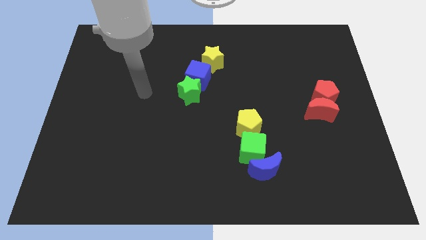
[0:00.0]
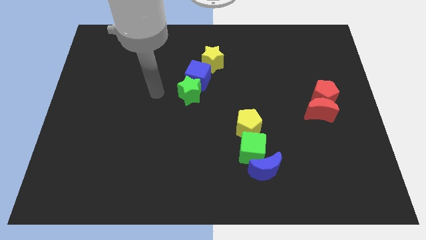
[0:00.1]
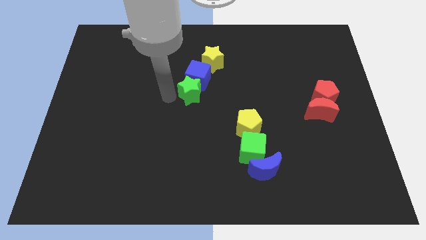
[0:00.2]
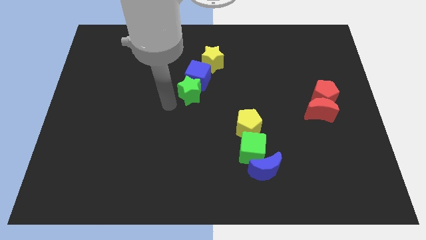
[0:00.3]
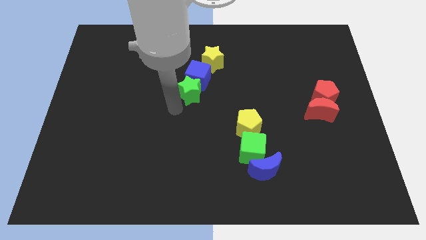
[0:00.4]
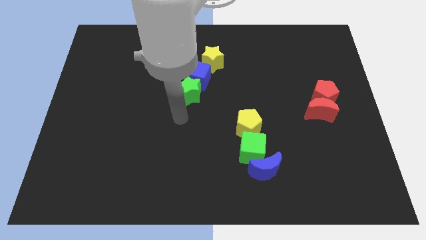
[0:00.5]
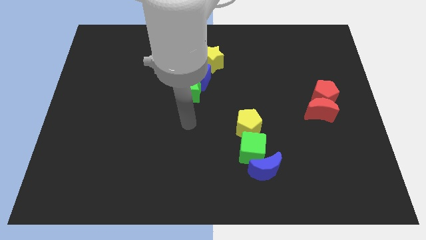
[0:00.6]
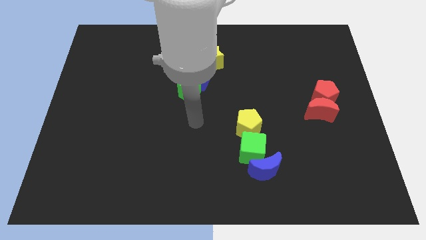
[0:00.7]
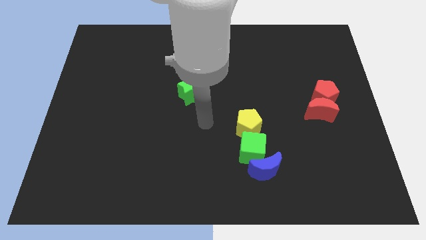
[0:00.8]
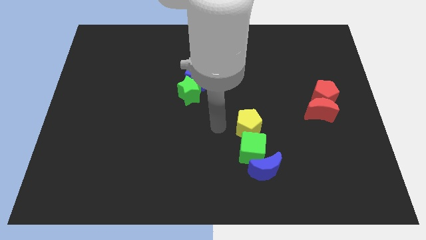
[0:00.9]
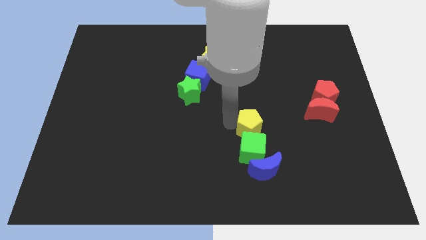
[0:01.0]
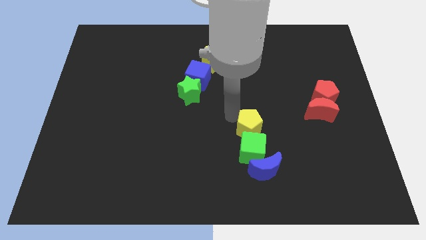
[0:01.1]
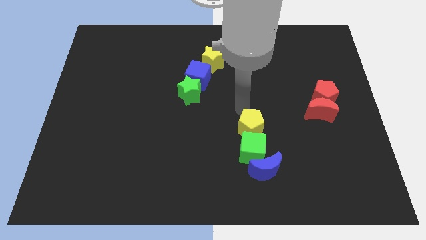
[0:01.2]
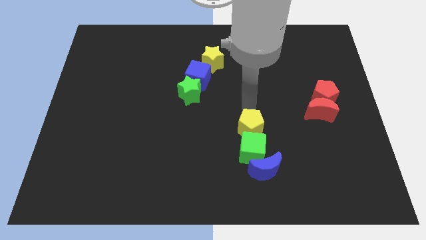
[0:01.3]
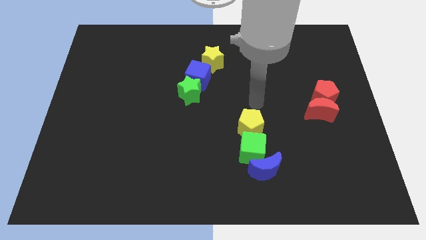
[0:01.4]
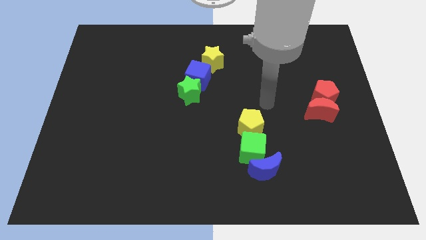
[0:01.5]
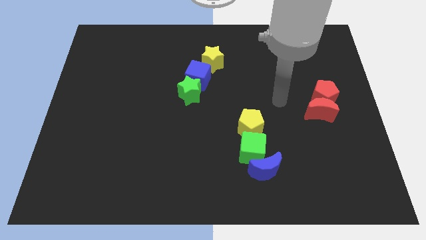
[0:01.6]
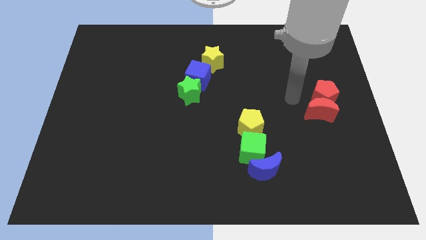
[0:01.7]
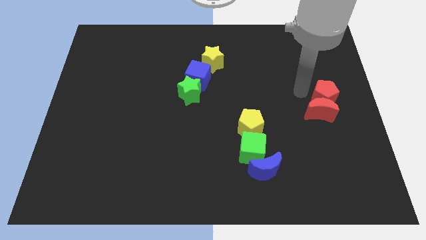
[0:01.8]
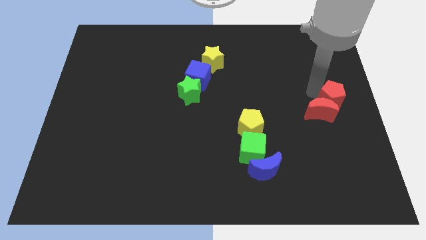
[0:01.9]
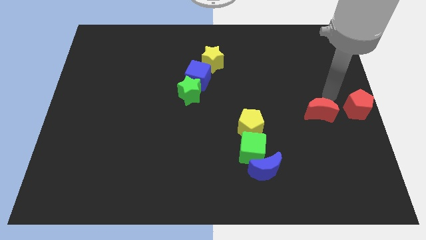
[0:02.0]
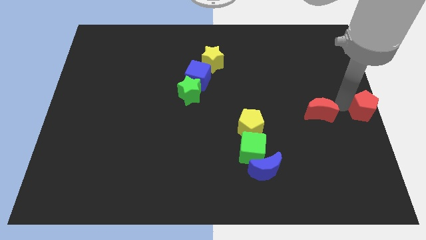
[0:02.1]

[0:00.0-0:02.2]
separate the red moon from the red pentagon

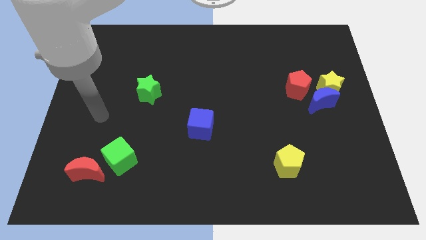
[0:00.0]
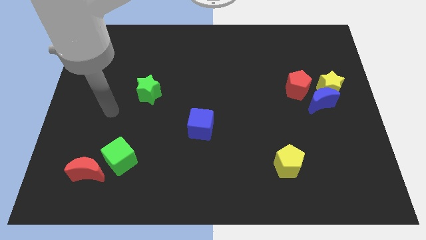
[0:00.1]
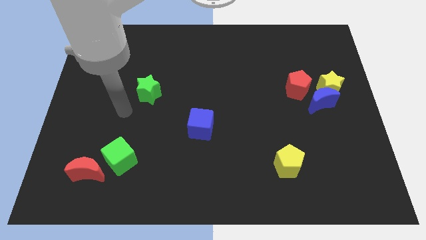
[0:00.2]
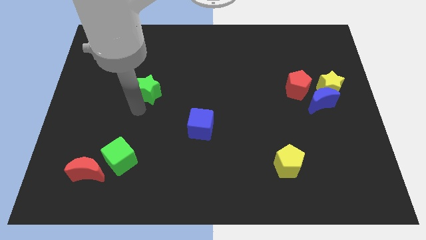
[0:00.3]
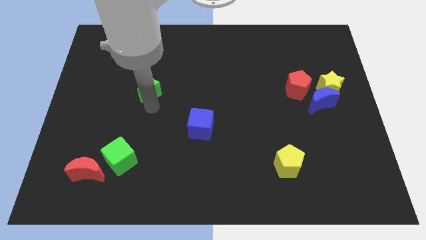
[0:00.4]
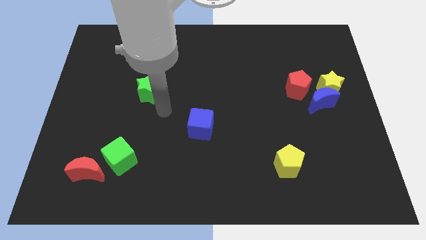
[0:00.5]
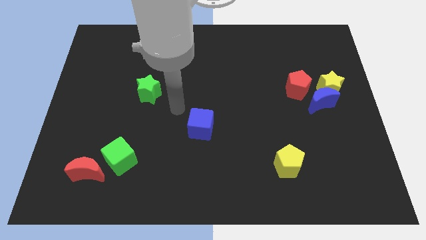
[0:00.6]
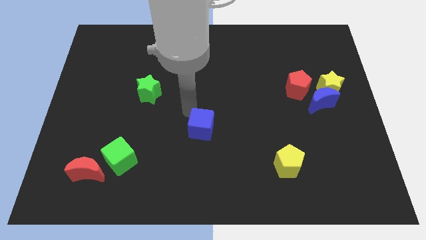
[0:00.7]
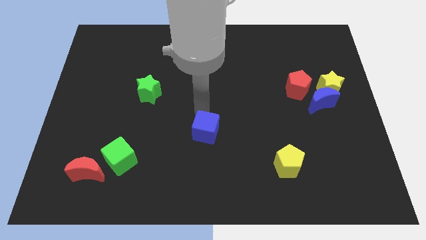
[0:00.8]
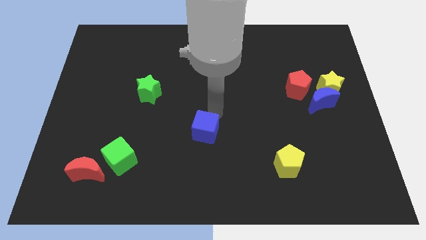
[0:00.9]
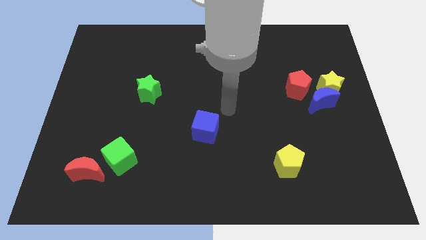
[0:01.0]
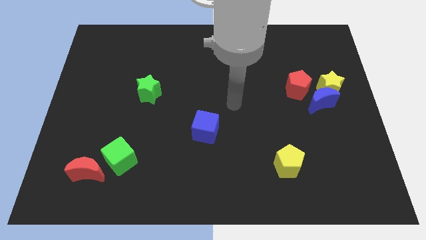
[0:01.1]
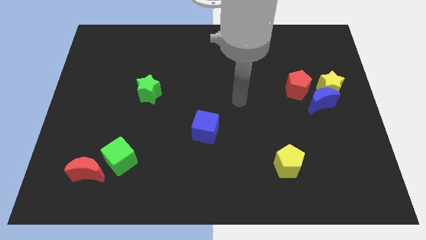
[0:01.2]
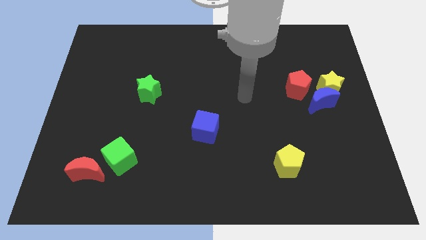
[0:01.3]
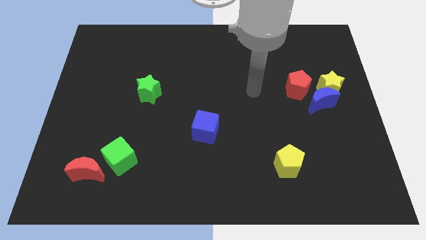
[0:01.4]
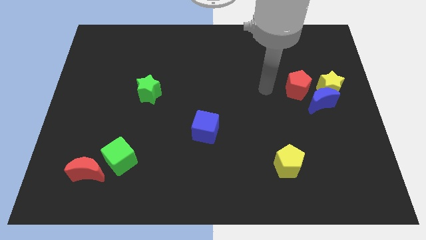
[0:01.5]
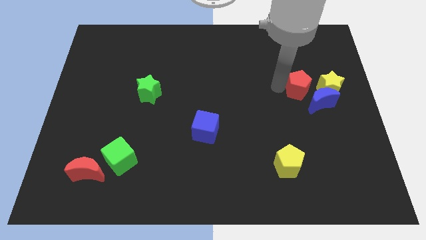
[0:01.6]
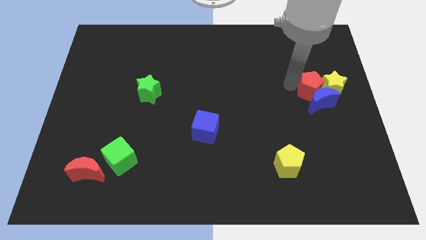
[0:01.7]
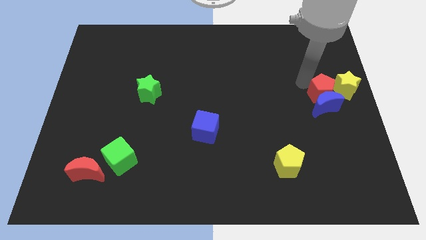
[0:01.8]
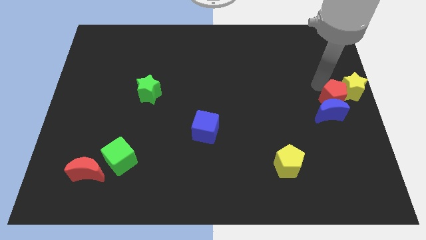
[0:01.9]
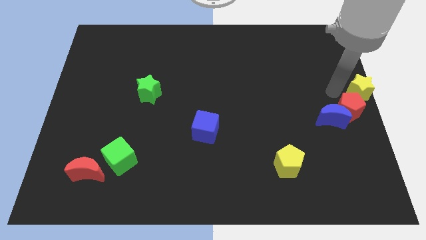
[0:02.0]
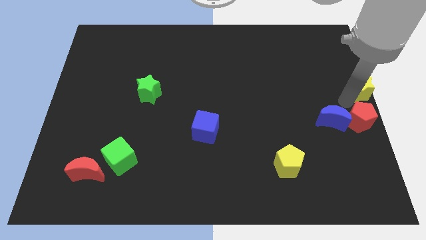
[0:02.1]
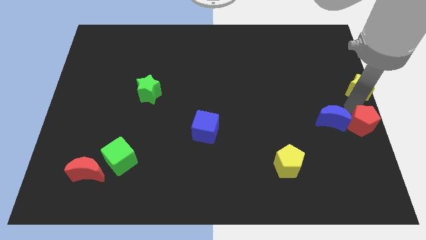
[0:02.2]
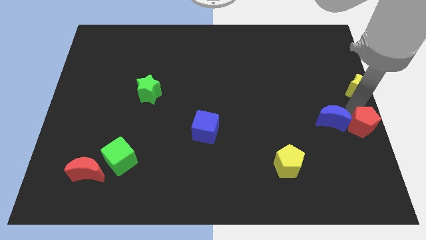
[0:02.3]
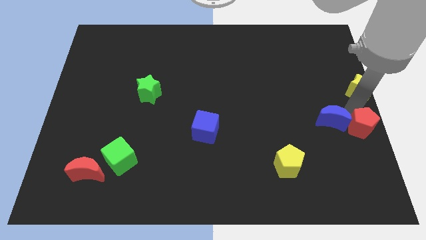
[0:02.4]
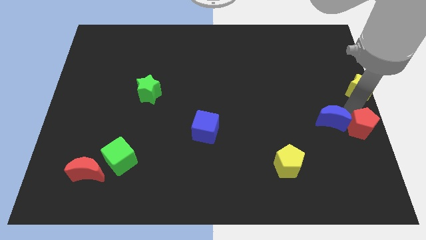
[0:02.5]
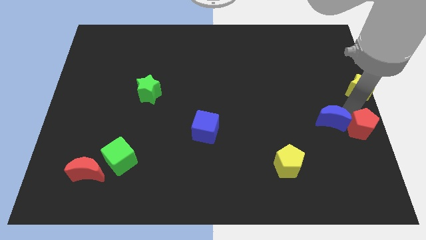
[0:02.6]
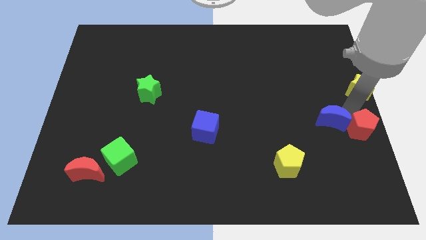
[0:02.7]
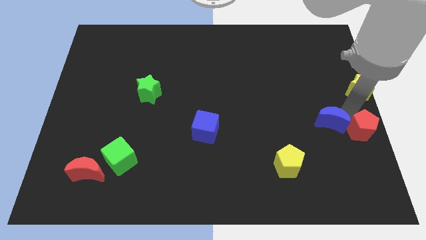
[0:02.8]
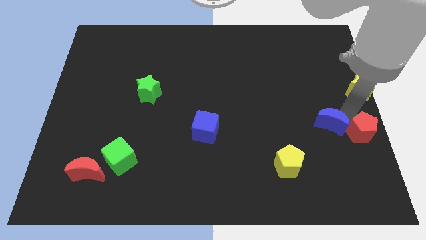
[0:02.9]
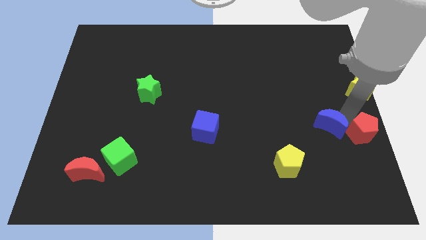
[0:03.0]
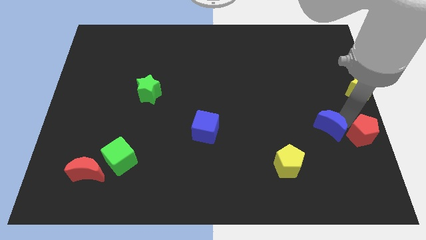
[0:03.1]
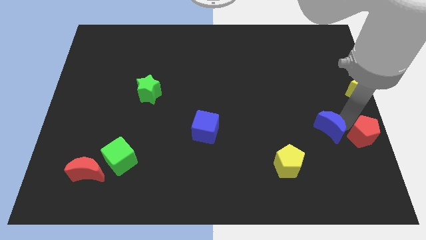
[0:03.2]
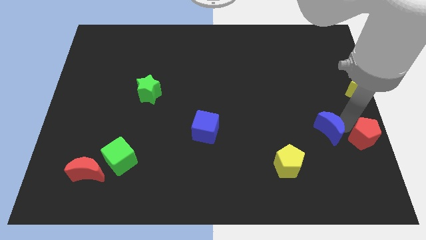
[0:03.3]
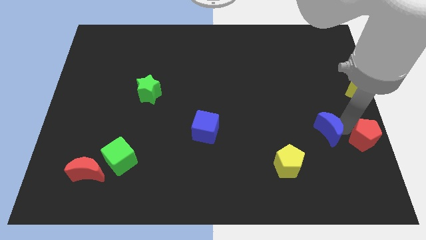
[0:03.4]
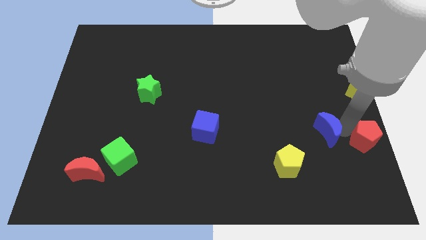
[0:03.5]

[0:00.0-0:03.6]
separate the blue moon from the yellow star and red pentagon

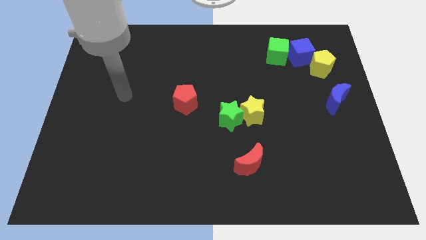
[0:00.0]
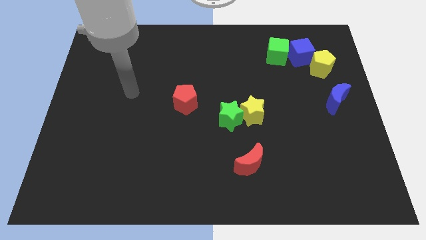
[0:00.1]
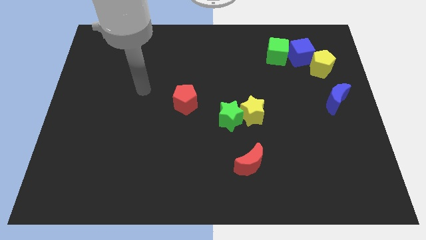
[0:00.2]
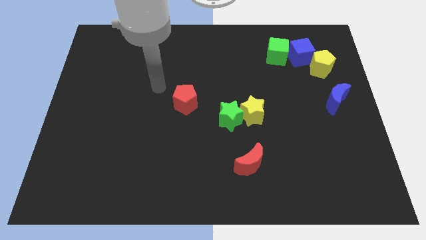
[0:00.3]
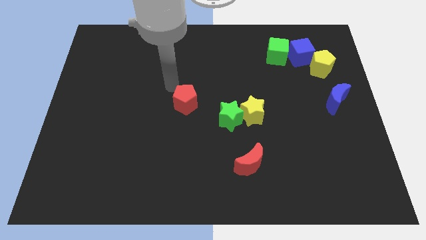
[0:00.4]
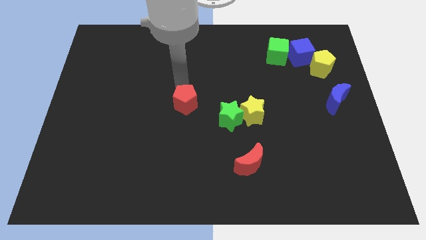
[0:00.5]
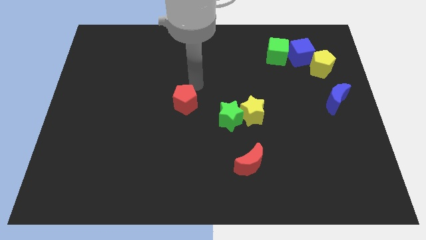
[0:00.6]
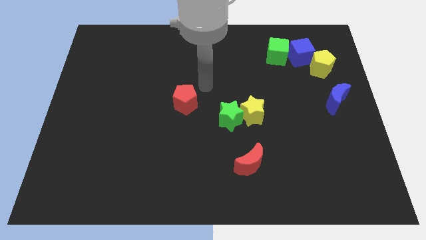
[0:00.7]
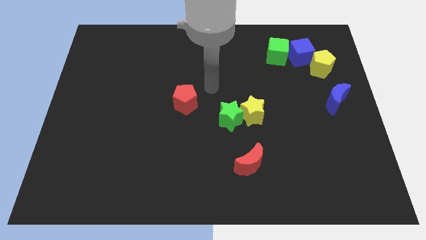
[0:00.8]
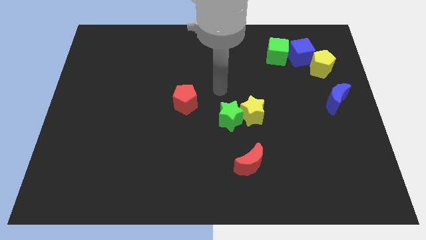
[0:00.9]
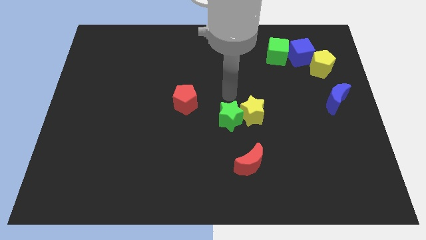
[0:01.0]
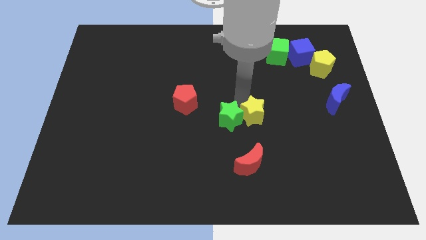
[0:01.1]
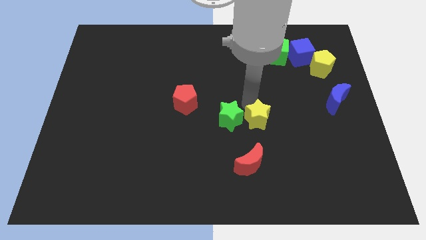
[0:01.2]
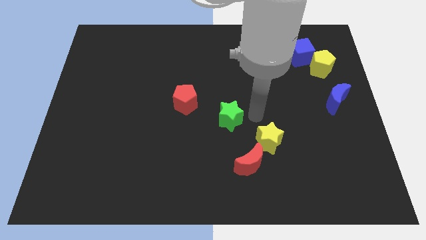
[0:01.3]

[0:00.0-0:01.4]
pull the green star apart from the yellow star

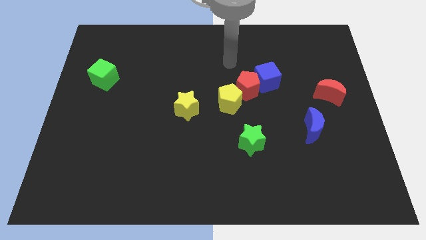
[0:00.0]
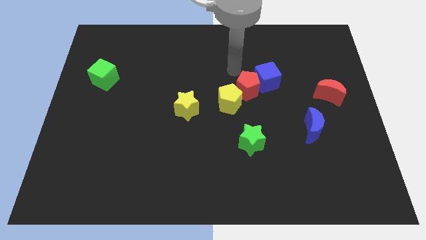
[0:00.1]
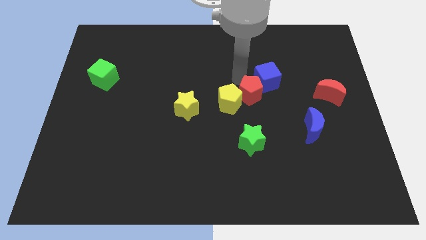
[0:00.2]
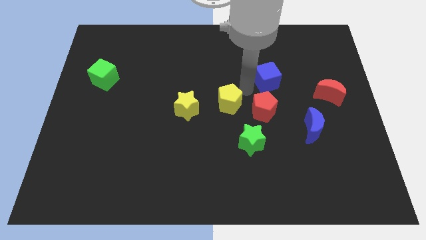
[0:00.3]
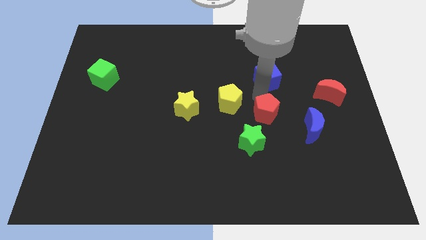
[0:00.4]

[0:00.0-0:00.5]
move the blue cube away from the red pentagon

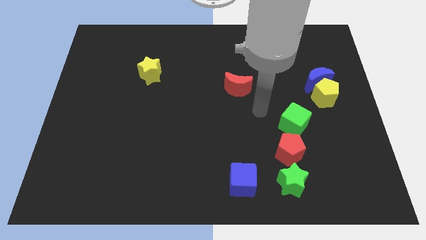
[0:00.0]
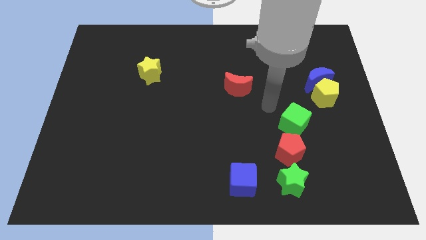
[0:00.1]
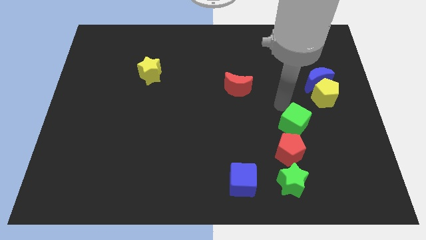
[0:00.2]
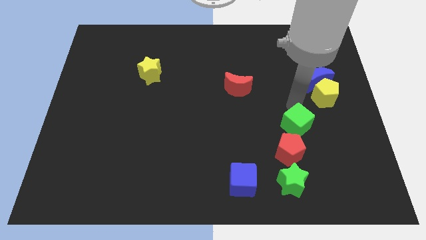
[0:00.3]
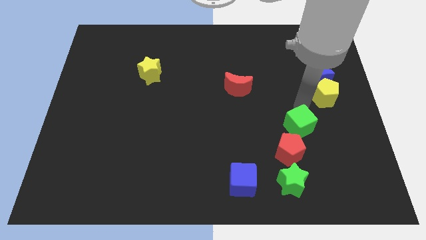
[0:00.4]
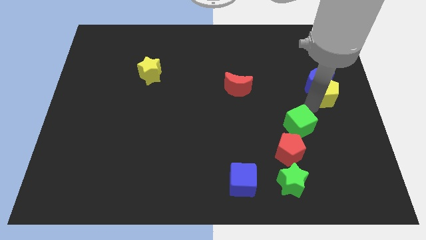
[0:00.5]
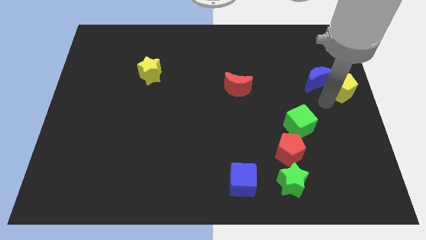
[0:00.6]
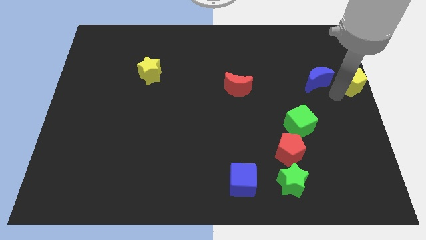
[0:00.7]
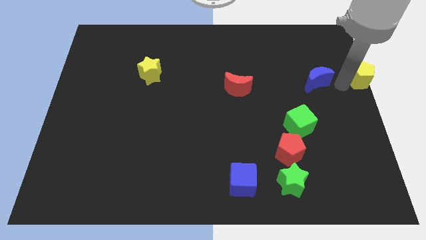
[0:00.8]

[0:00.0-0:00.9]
move the blue moon away from the yellow pentagon

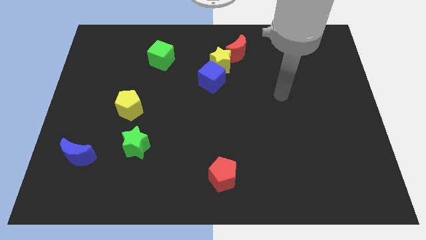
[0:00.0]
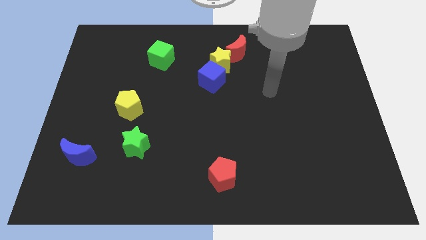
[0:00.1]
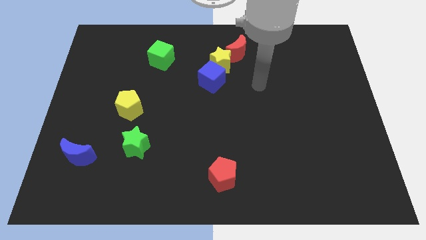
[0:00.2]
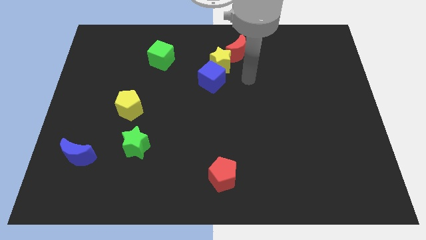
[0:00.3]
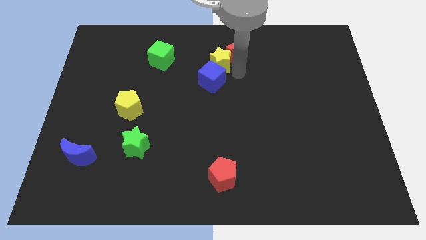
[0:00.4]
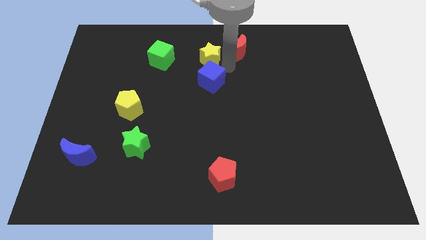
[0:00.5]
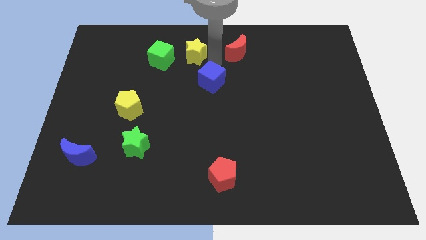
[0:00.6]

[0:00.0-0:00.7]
separate the blue cube from the yellow star
